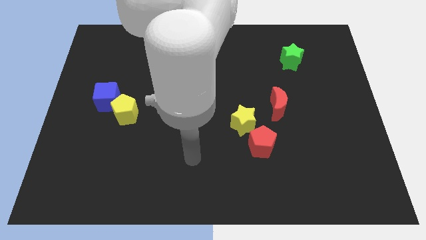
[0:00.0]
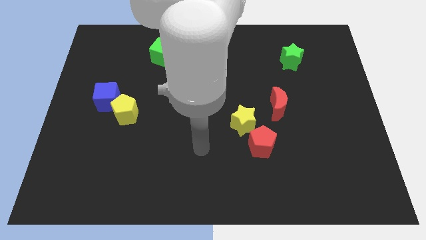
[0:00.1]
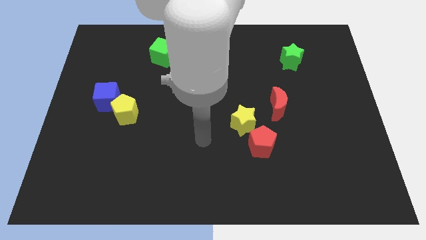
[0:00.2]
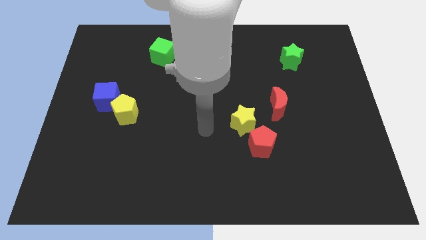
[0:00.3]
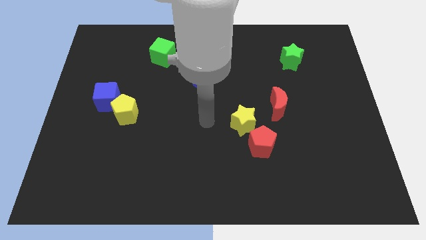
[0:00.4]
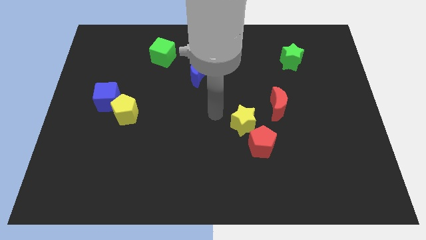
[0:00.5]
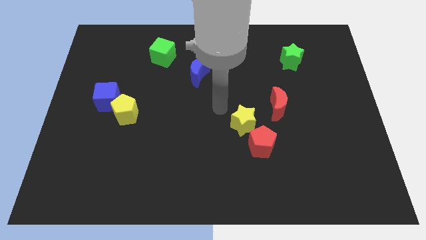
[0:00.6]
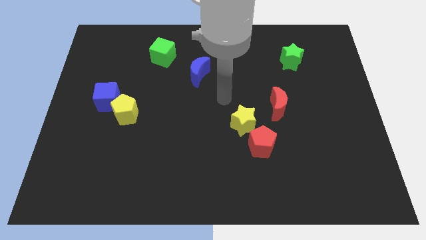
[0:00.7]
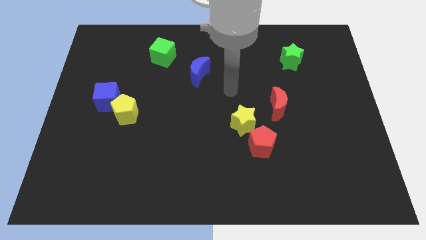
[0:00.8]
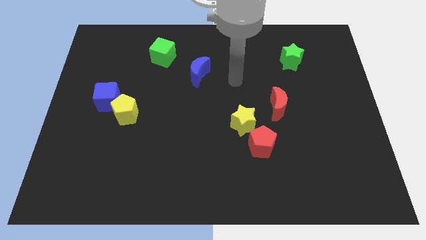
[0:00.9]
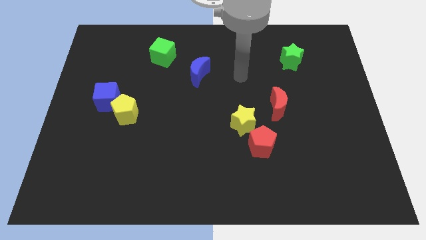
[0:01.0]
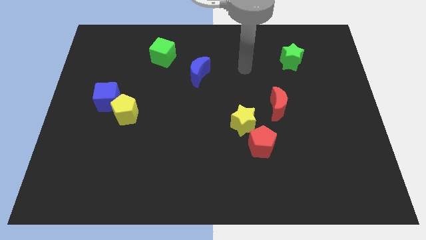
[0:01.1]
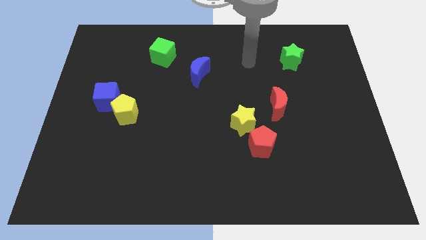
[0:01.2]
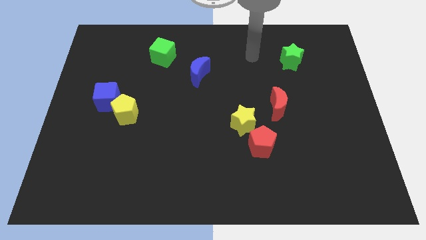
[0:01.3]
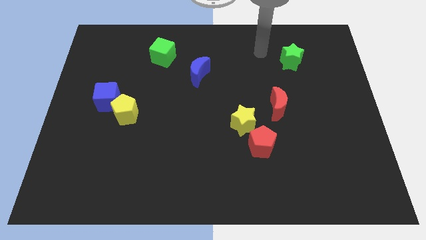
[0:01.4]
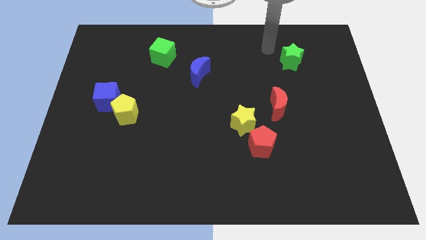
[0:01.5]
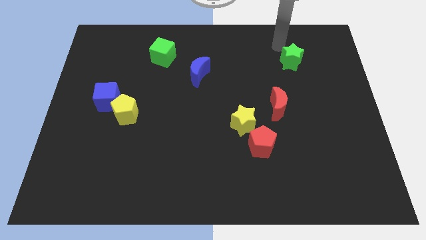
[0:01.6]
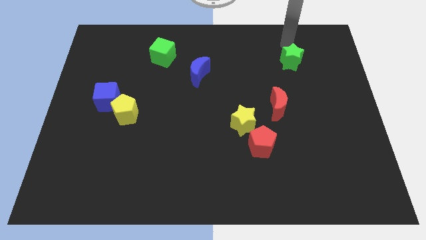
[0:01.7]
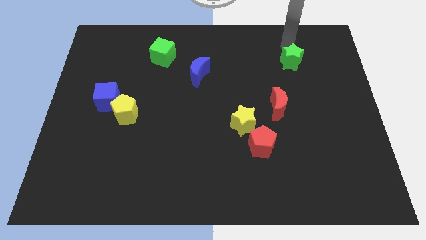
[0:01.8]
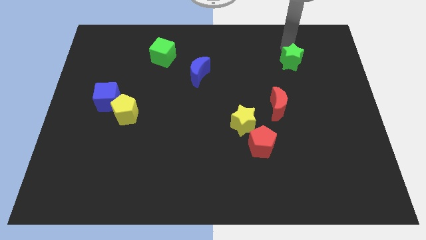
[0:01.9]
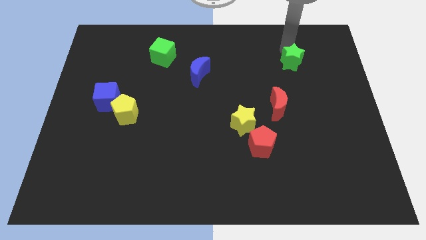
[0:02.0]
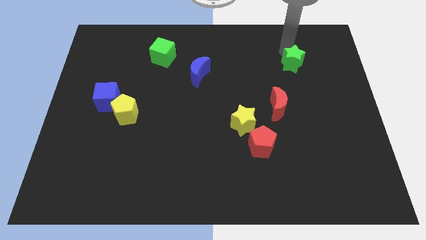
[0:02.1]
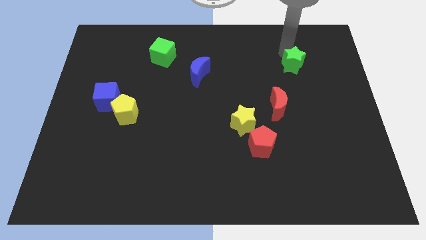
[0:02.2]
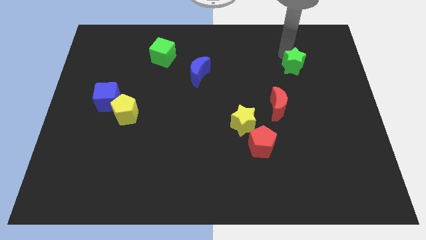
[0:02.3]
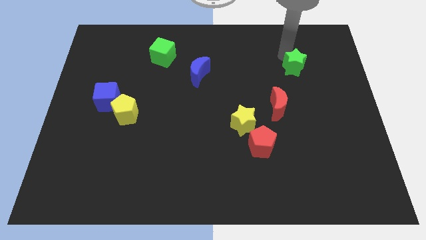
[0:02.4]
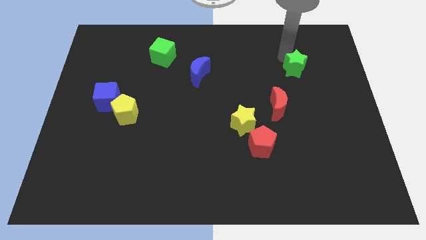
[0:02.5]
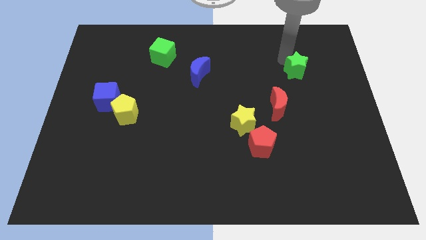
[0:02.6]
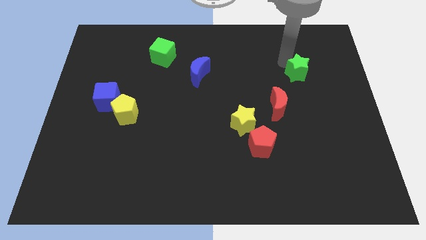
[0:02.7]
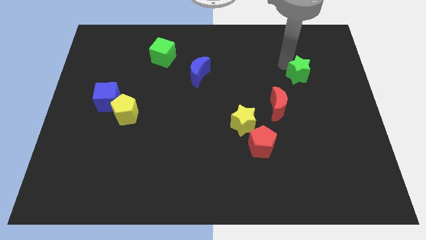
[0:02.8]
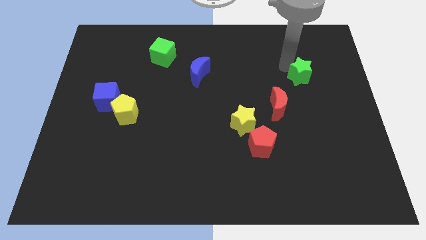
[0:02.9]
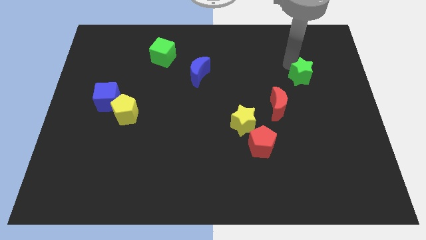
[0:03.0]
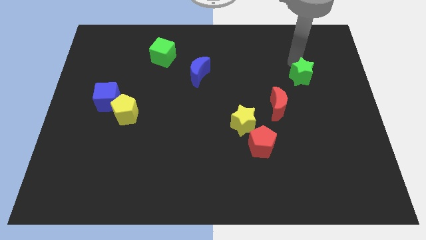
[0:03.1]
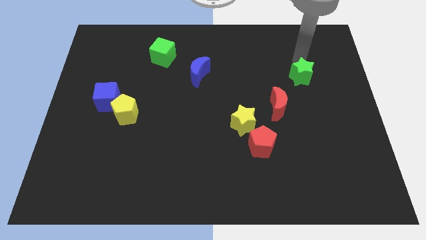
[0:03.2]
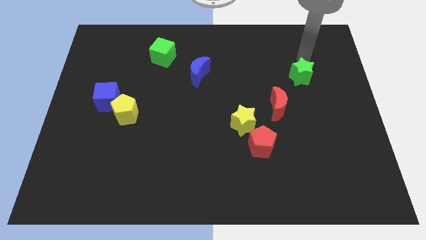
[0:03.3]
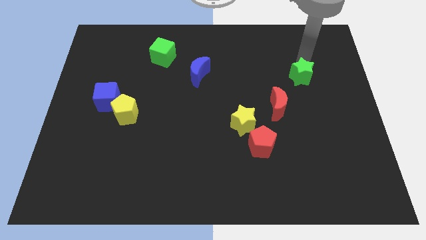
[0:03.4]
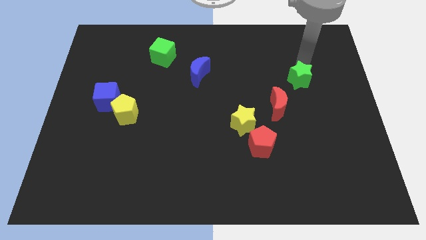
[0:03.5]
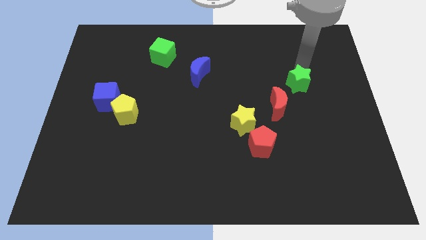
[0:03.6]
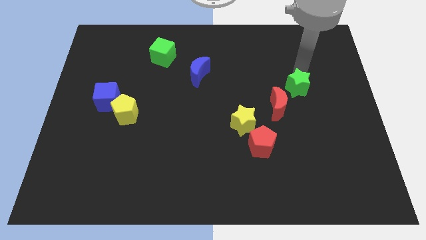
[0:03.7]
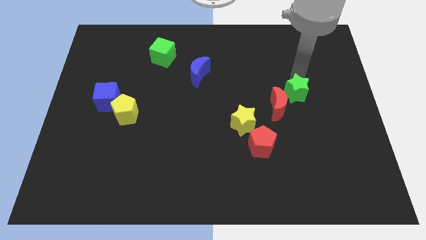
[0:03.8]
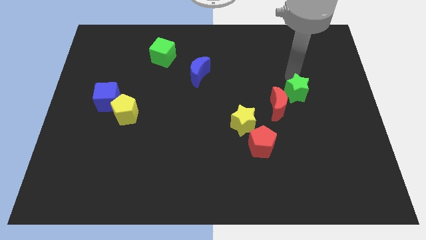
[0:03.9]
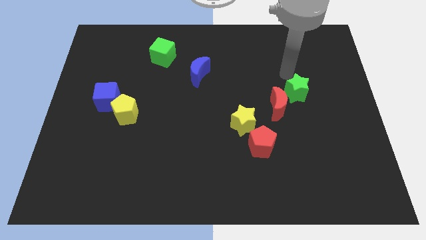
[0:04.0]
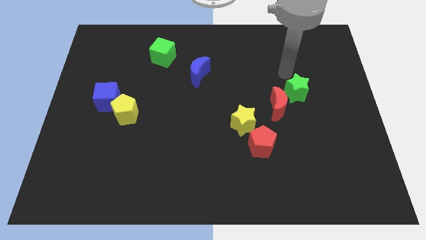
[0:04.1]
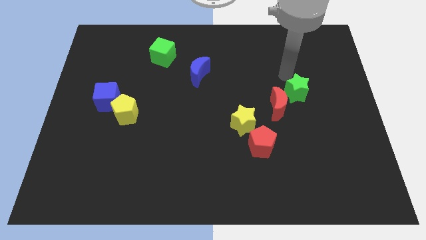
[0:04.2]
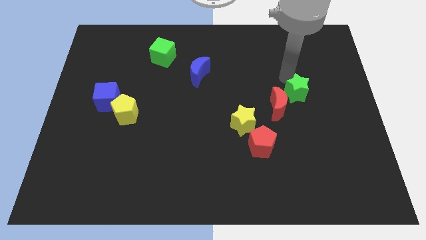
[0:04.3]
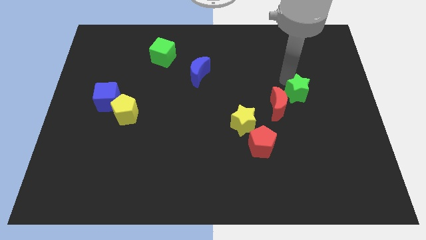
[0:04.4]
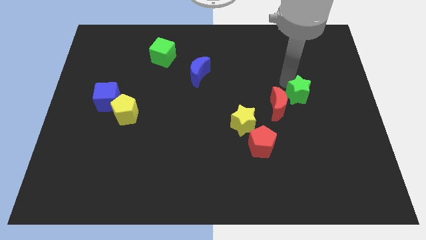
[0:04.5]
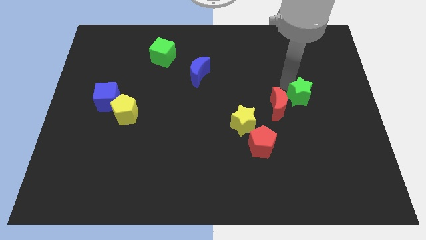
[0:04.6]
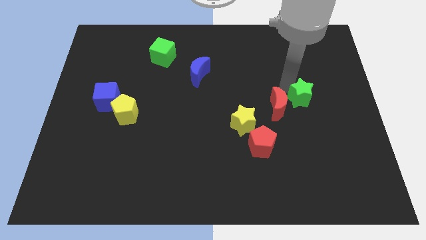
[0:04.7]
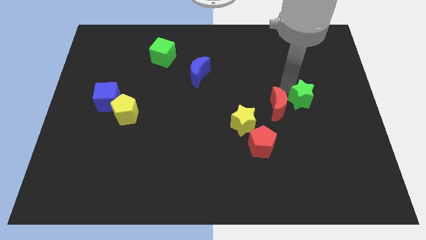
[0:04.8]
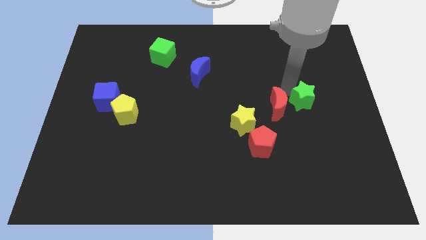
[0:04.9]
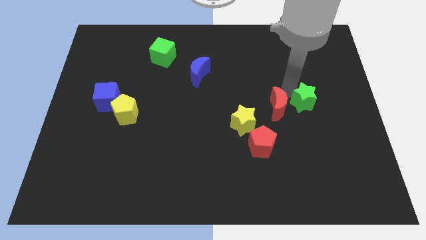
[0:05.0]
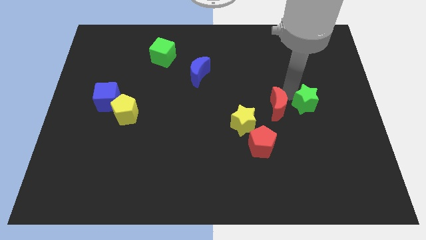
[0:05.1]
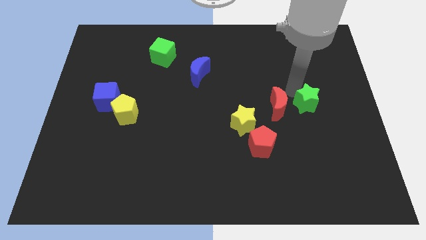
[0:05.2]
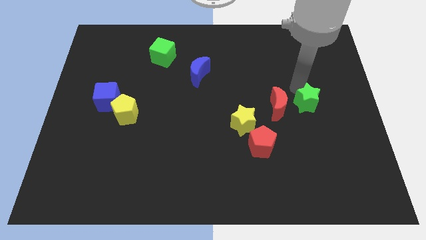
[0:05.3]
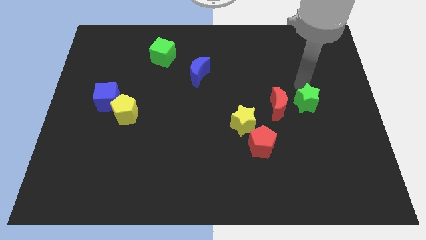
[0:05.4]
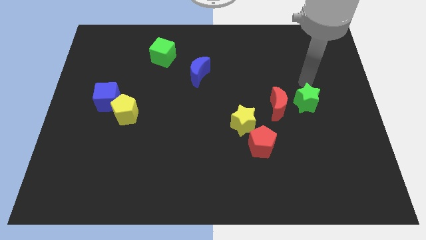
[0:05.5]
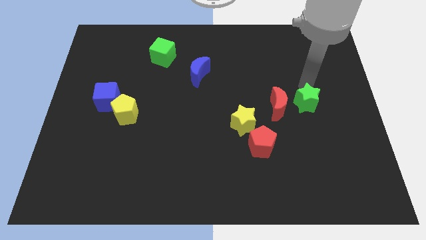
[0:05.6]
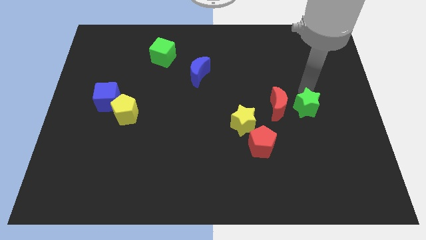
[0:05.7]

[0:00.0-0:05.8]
slide the green star diagonally down and to the right of the red moon
